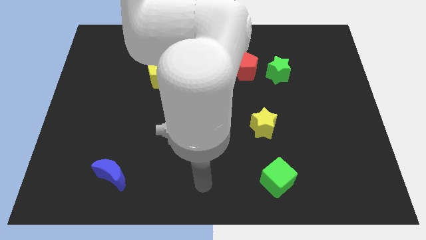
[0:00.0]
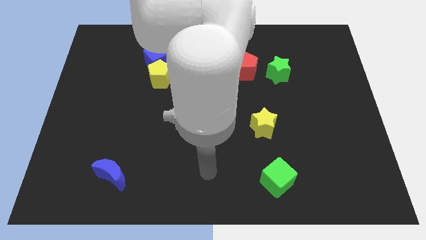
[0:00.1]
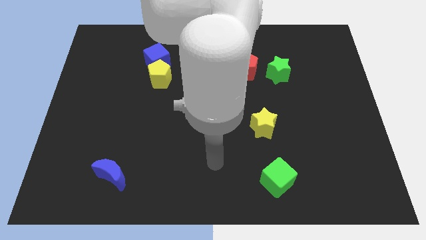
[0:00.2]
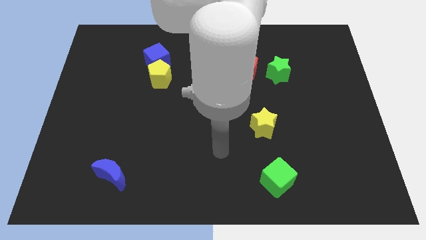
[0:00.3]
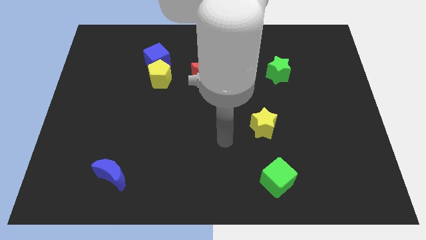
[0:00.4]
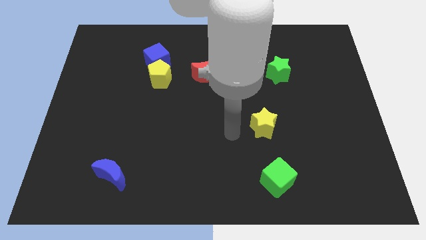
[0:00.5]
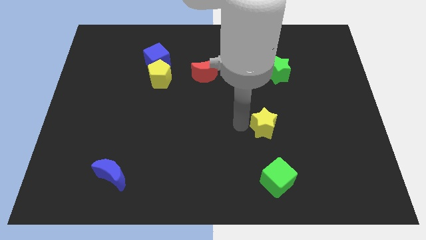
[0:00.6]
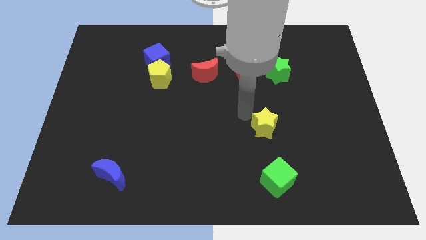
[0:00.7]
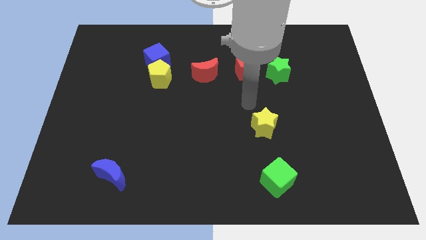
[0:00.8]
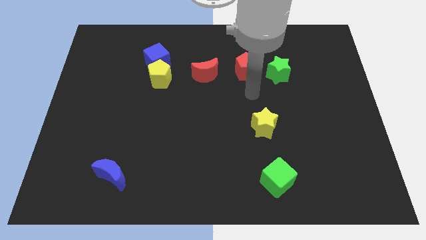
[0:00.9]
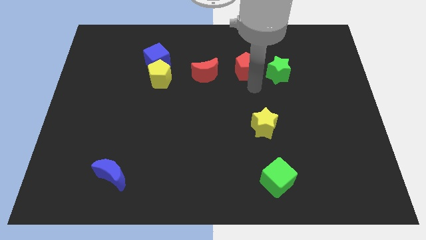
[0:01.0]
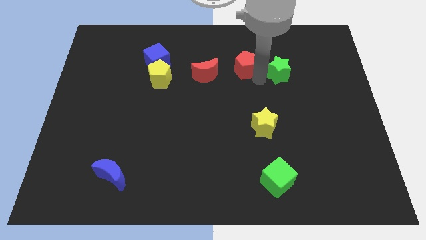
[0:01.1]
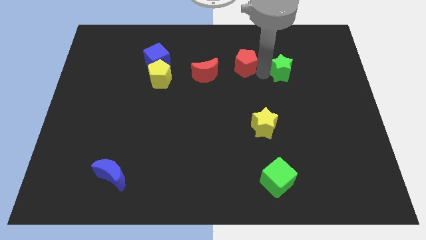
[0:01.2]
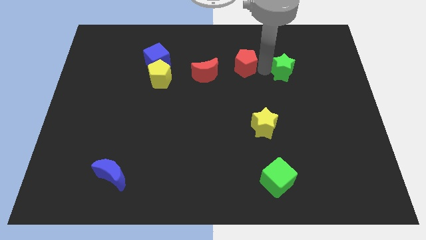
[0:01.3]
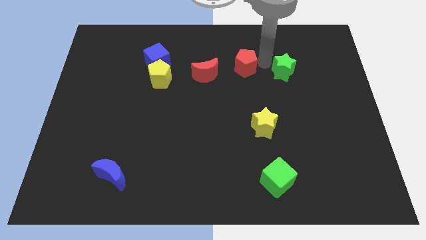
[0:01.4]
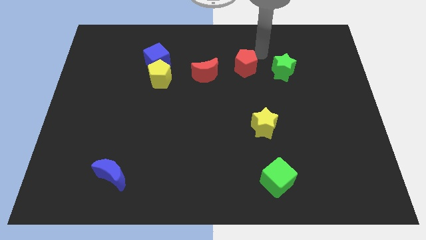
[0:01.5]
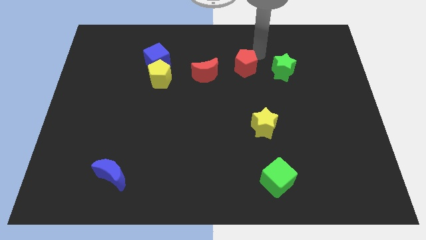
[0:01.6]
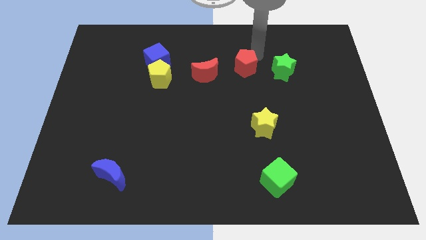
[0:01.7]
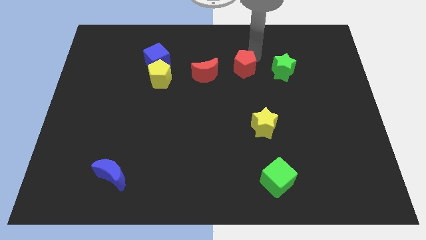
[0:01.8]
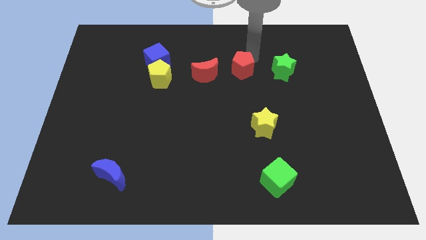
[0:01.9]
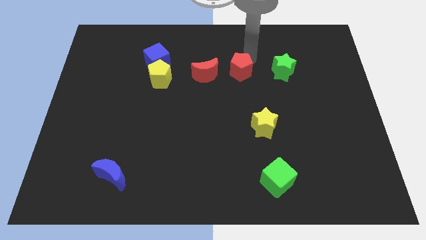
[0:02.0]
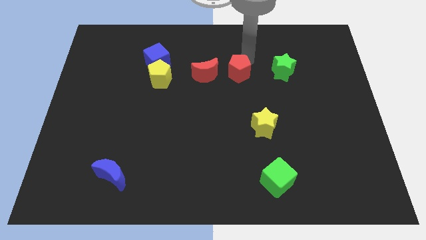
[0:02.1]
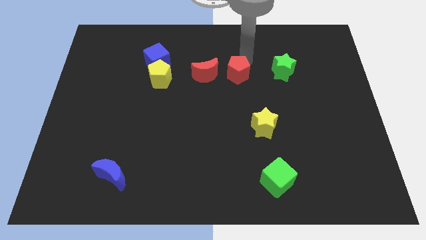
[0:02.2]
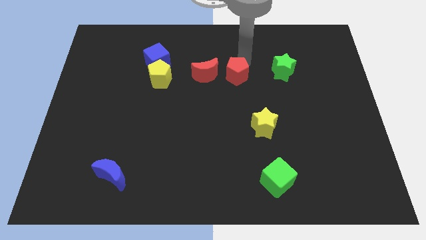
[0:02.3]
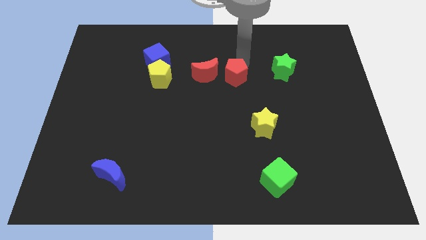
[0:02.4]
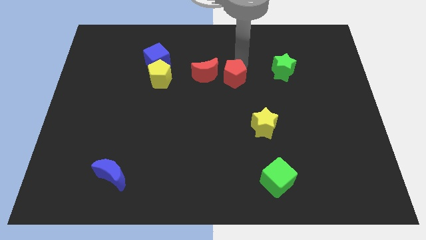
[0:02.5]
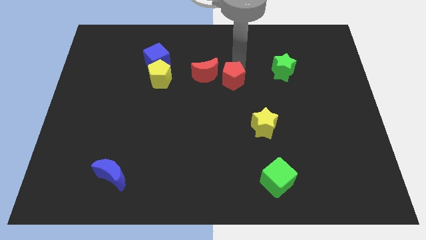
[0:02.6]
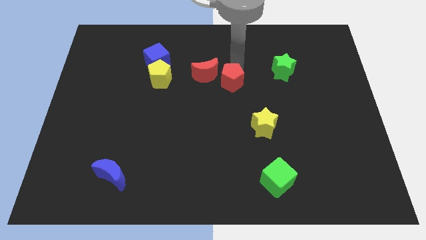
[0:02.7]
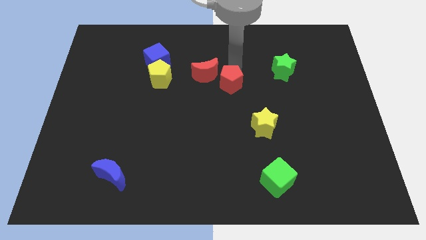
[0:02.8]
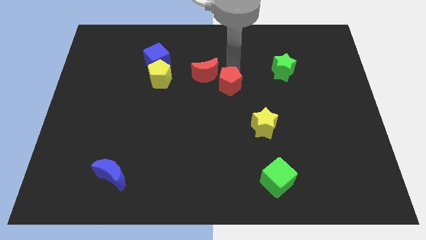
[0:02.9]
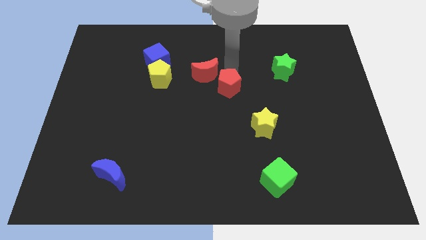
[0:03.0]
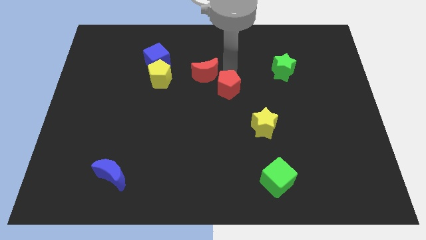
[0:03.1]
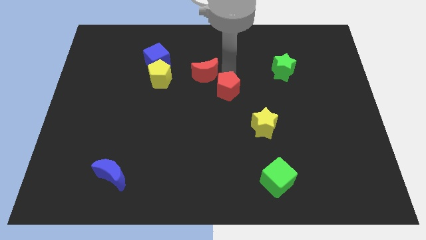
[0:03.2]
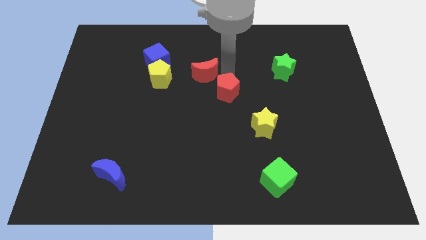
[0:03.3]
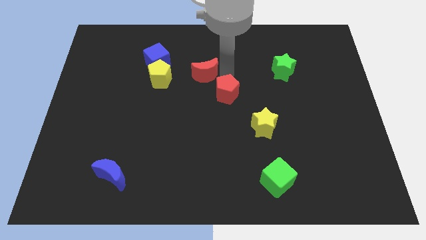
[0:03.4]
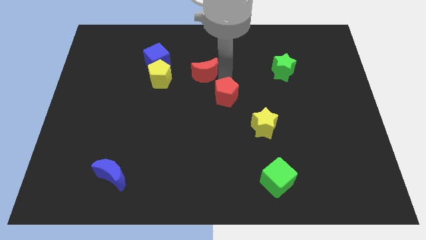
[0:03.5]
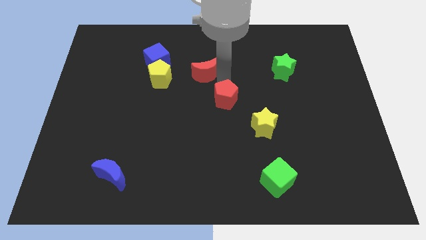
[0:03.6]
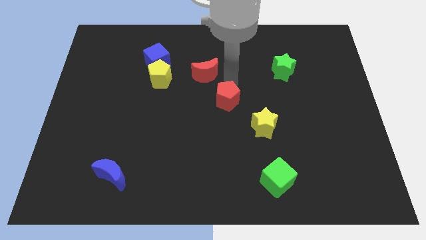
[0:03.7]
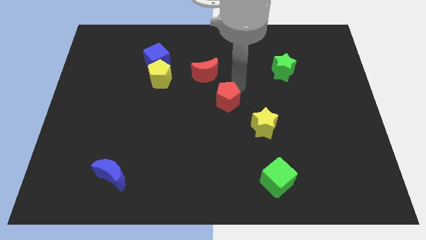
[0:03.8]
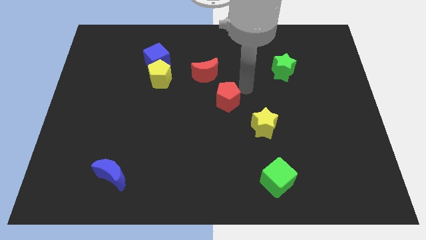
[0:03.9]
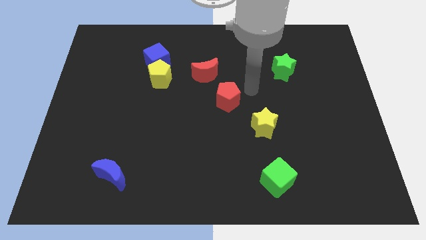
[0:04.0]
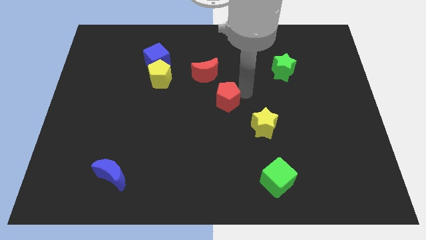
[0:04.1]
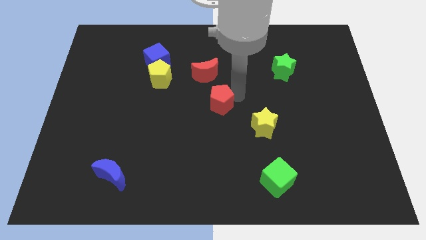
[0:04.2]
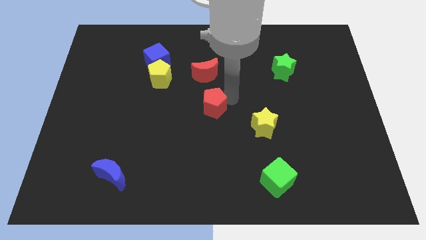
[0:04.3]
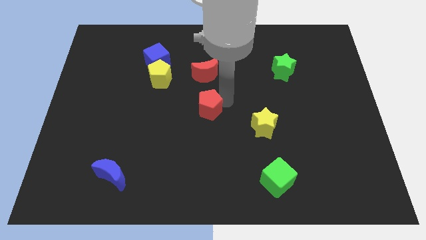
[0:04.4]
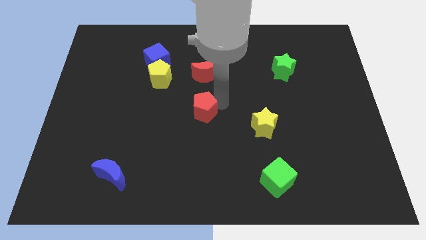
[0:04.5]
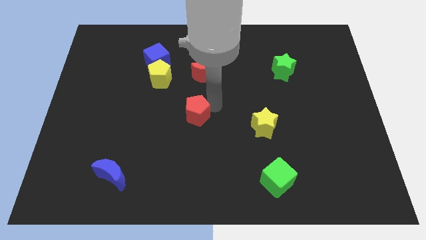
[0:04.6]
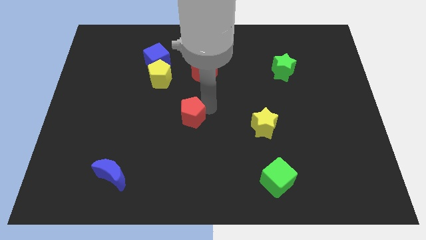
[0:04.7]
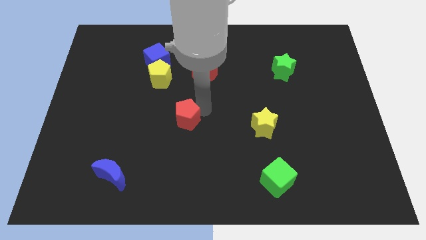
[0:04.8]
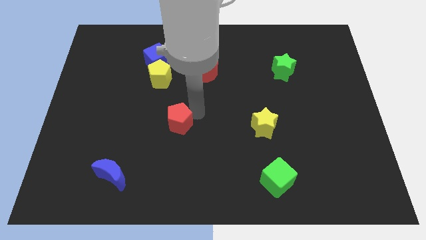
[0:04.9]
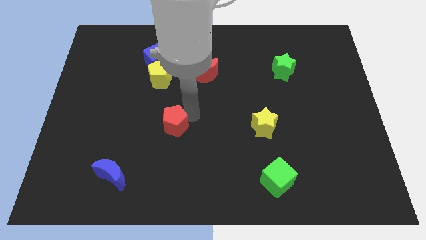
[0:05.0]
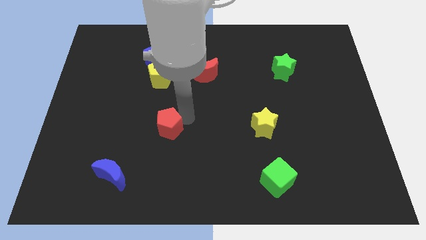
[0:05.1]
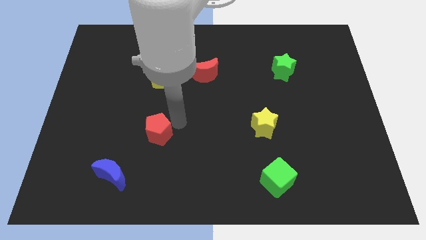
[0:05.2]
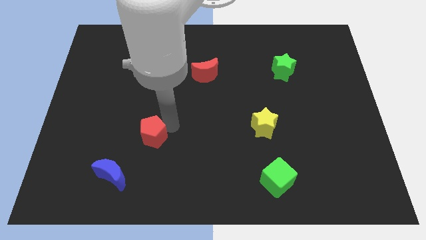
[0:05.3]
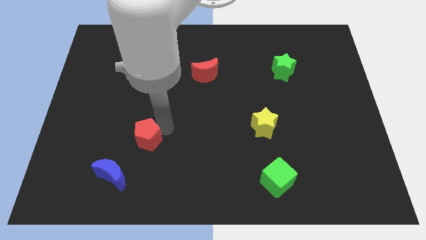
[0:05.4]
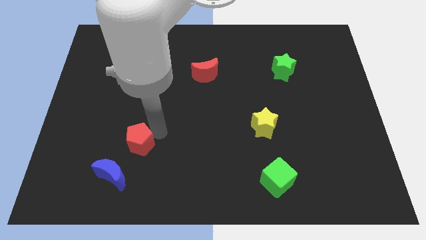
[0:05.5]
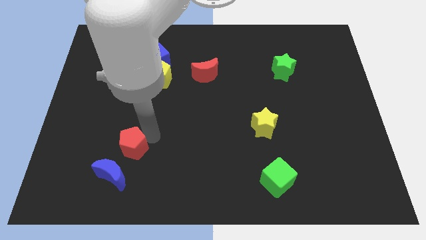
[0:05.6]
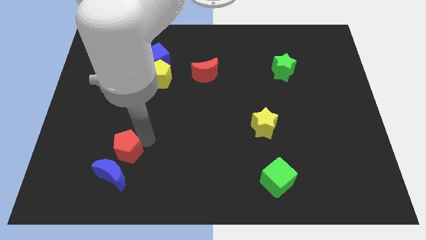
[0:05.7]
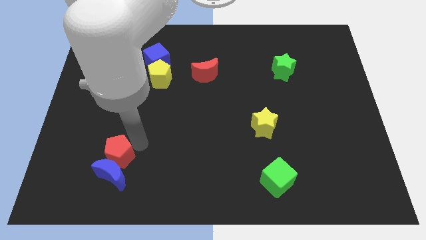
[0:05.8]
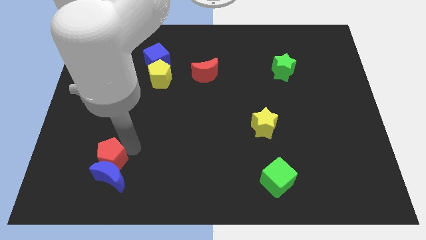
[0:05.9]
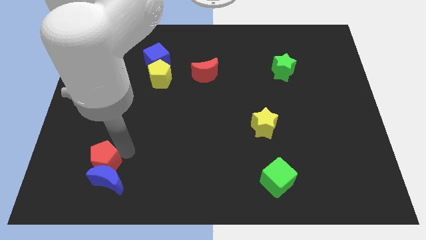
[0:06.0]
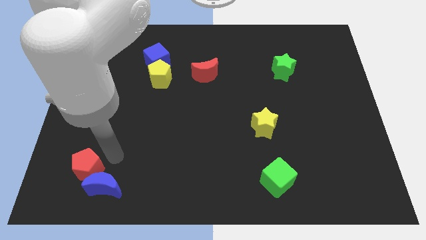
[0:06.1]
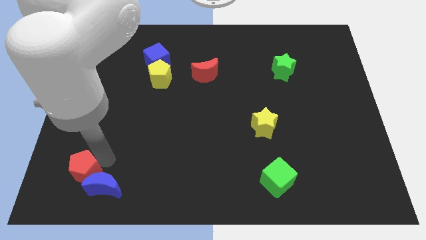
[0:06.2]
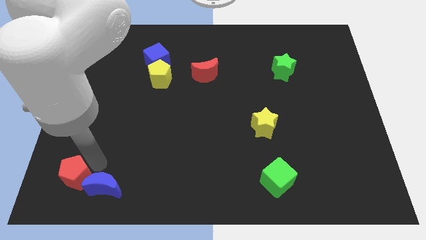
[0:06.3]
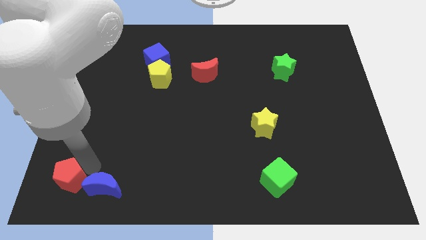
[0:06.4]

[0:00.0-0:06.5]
push the red pentagon to the bottom left of the board
